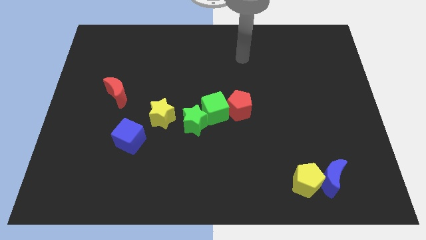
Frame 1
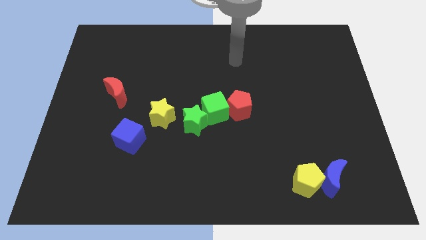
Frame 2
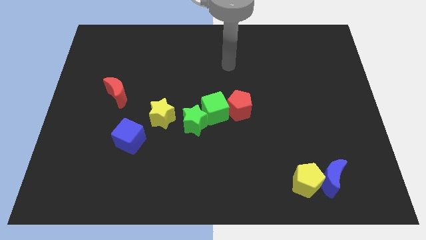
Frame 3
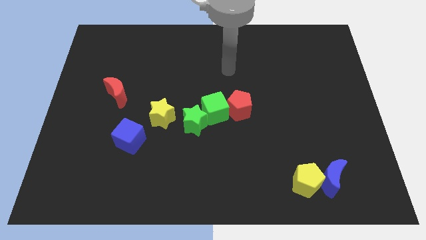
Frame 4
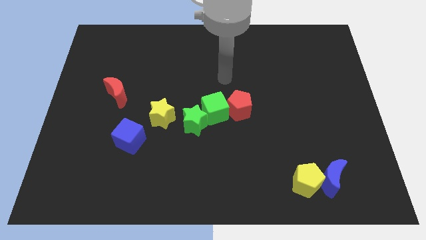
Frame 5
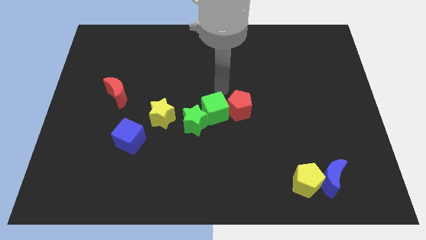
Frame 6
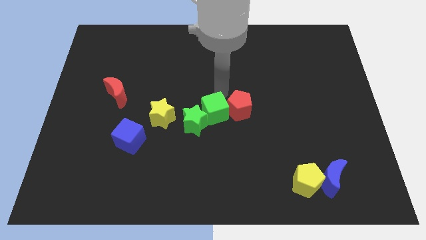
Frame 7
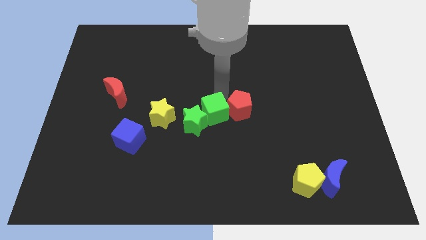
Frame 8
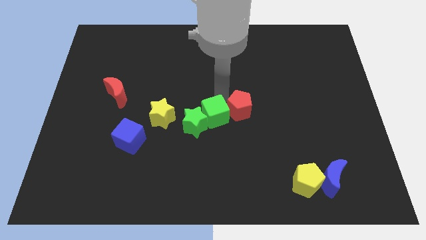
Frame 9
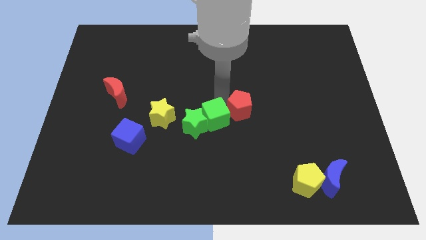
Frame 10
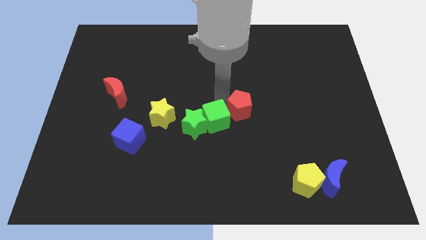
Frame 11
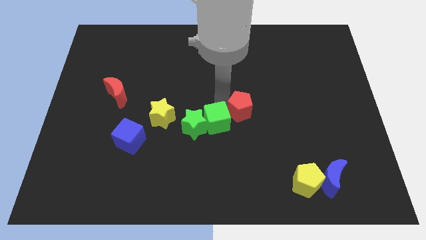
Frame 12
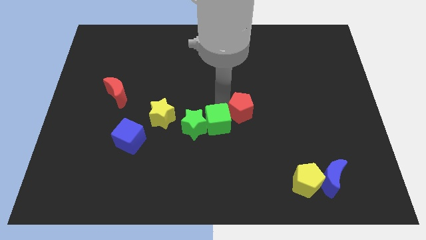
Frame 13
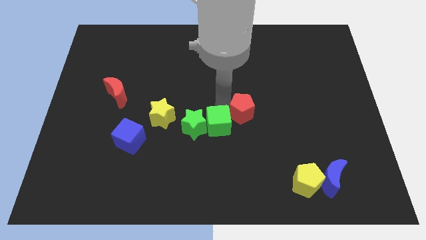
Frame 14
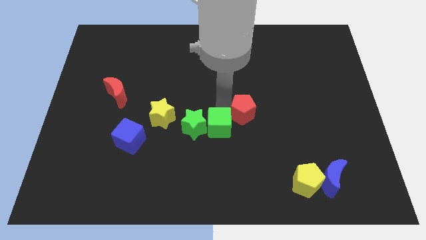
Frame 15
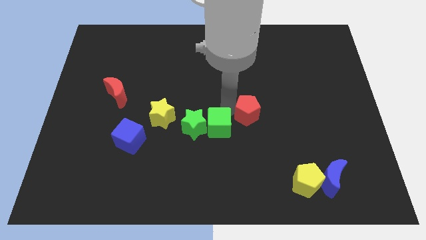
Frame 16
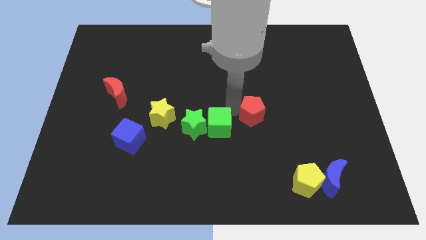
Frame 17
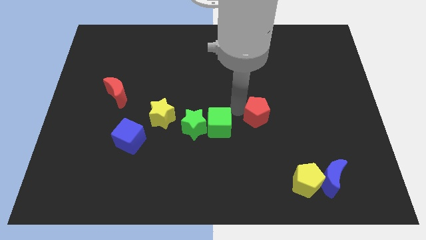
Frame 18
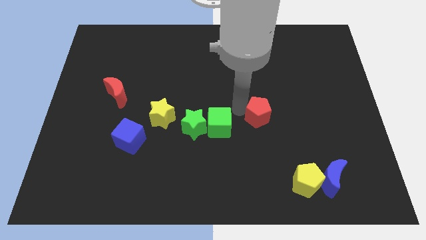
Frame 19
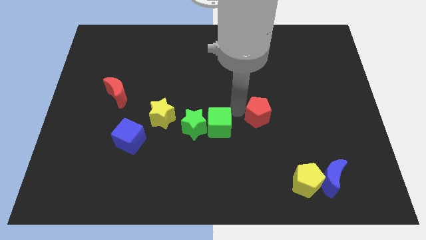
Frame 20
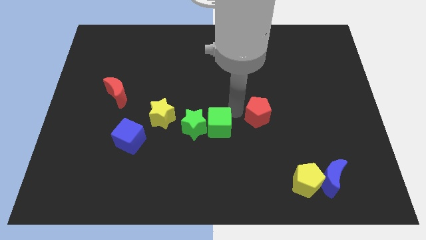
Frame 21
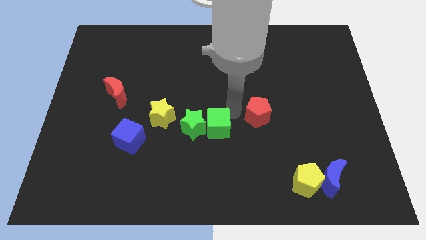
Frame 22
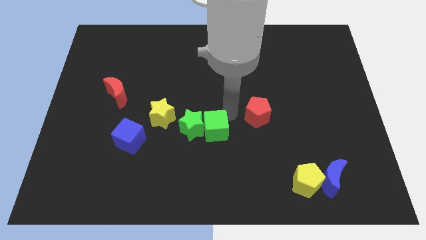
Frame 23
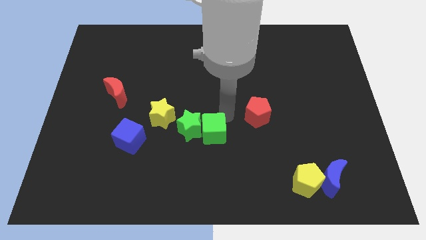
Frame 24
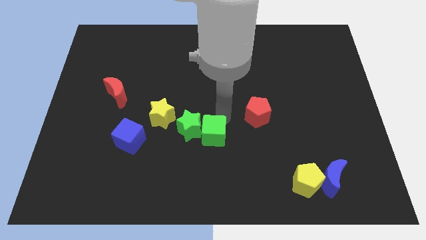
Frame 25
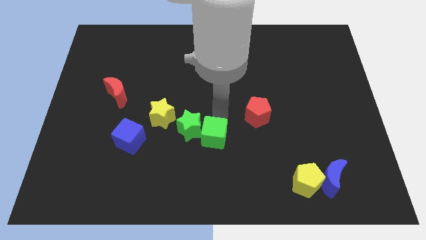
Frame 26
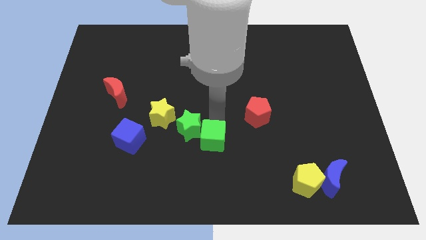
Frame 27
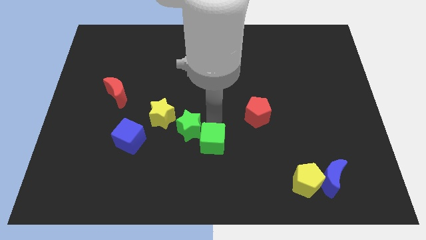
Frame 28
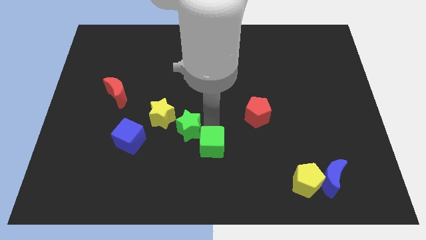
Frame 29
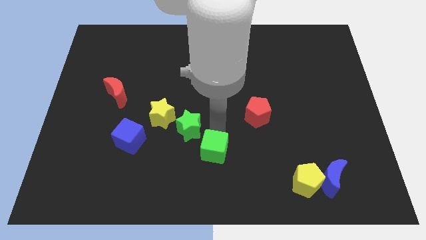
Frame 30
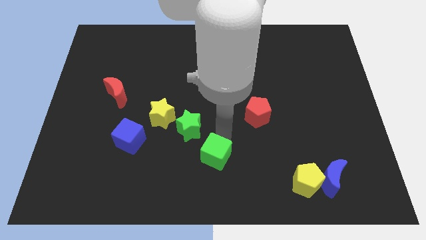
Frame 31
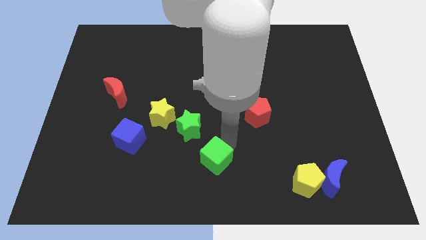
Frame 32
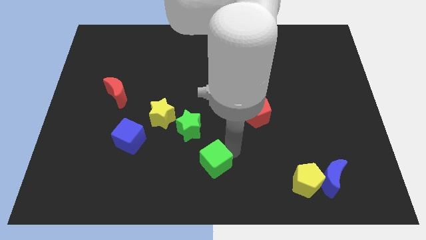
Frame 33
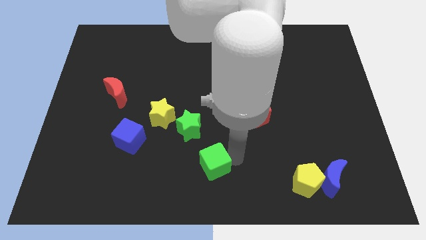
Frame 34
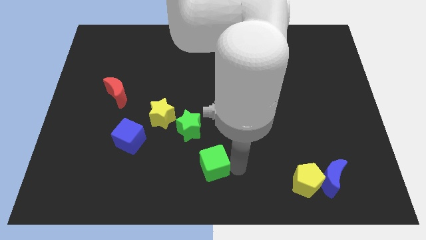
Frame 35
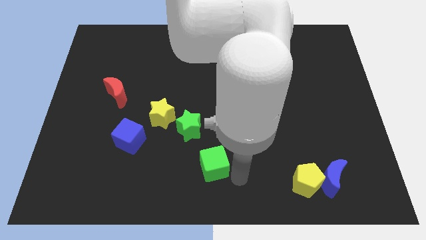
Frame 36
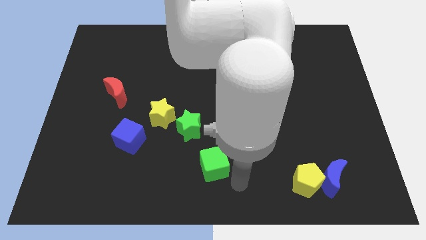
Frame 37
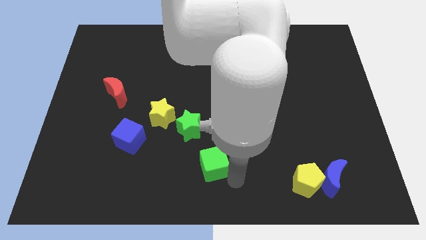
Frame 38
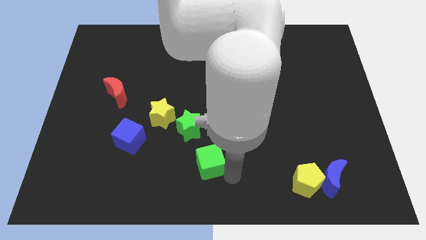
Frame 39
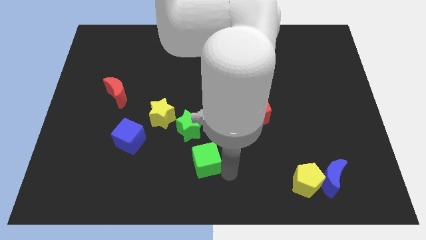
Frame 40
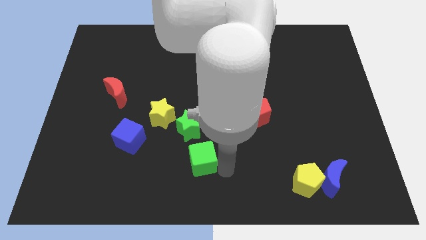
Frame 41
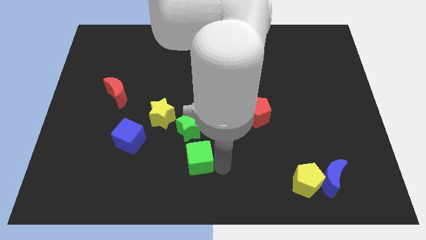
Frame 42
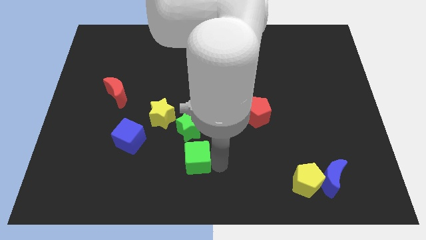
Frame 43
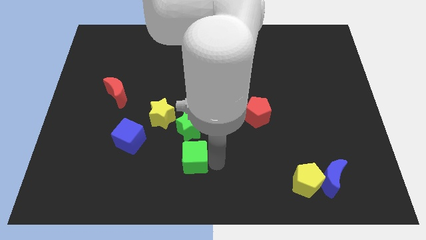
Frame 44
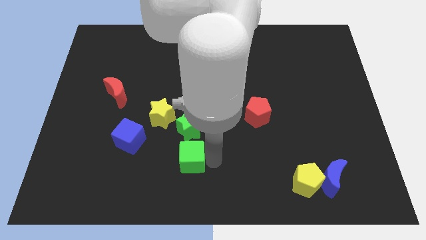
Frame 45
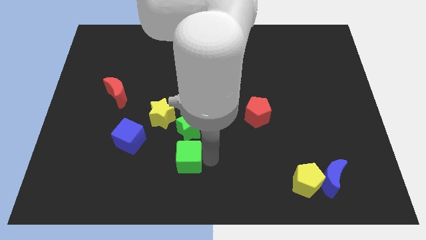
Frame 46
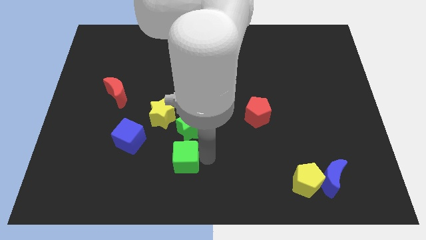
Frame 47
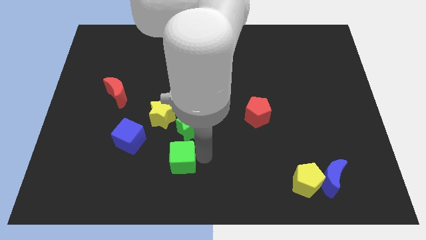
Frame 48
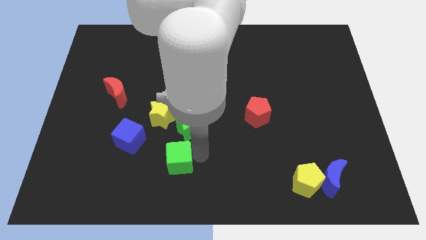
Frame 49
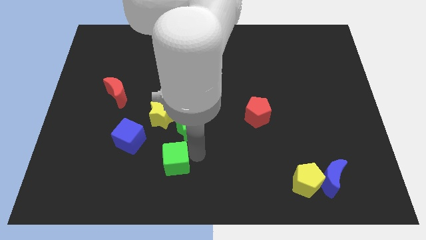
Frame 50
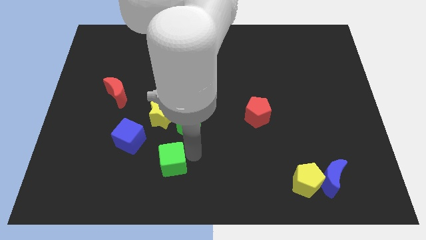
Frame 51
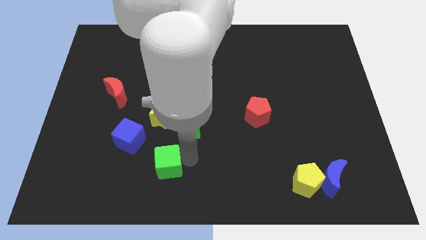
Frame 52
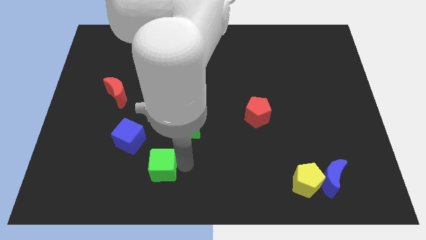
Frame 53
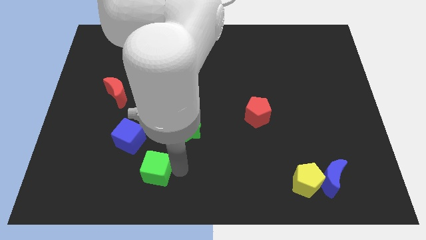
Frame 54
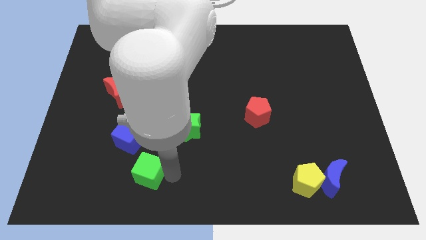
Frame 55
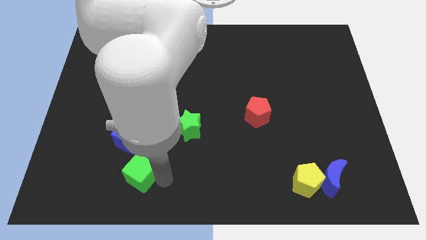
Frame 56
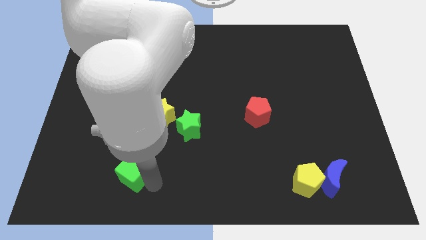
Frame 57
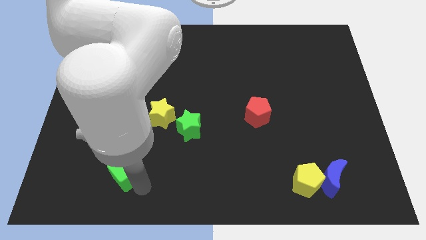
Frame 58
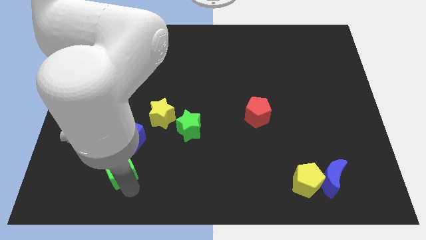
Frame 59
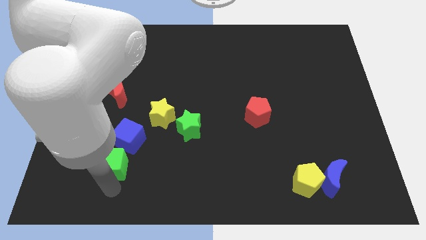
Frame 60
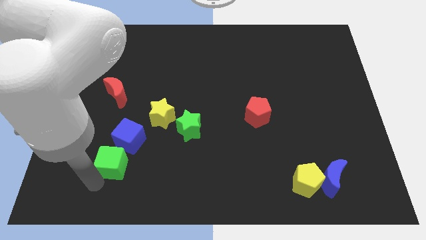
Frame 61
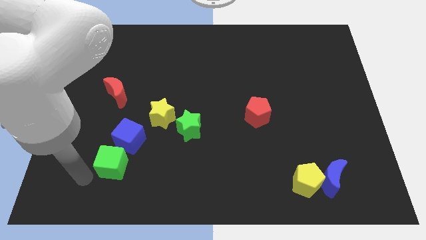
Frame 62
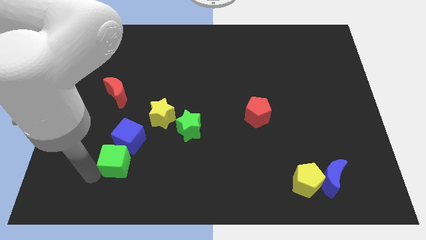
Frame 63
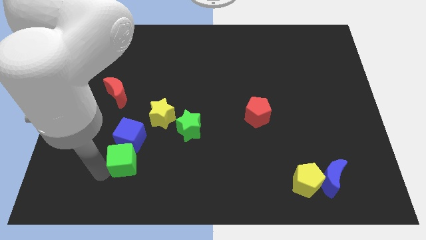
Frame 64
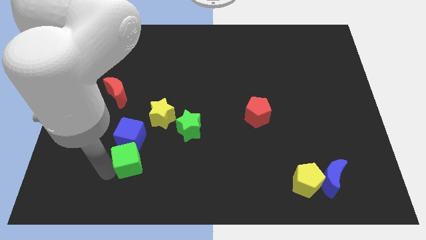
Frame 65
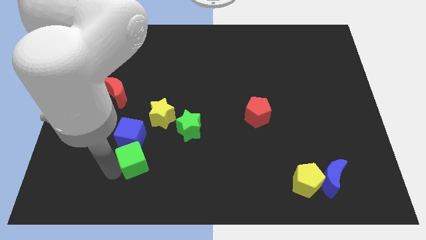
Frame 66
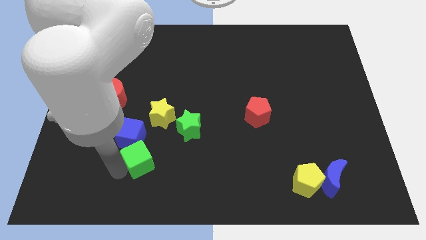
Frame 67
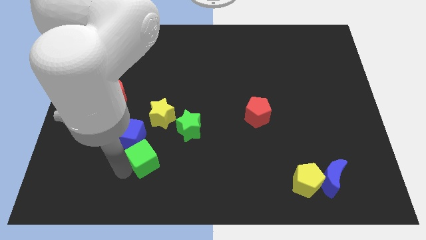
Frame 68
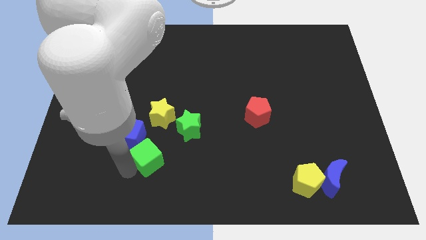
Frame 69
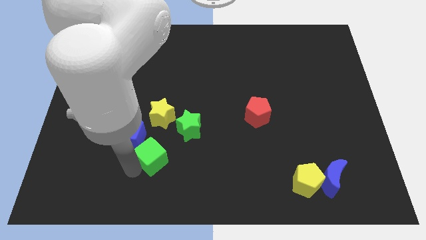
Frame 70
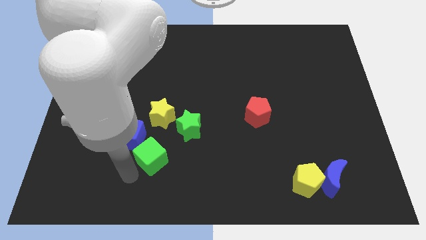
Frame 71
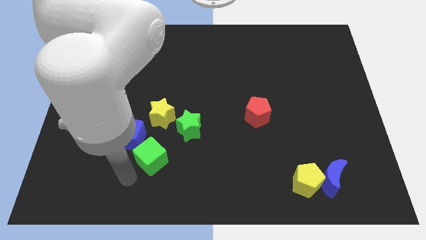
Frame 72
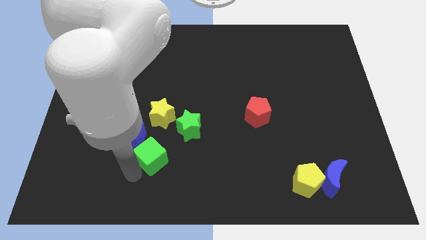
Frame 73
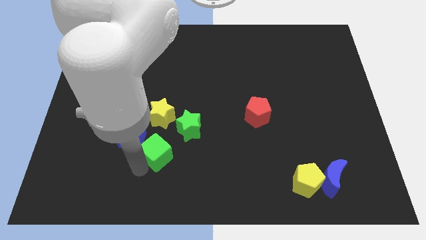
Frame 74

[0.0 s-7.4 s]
slide the green cube to the right of the blue cube
